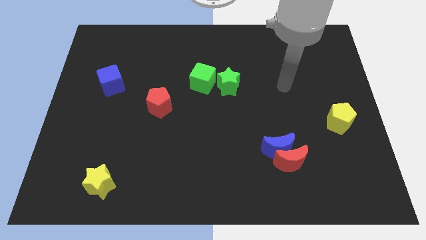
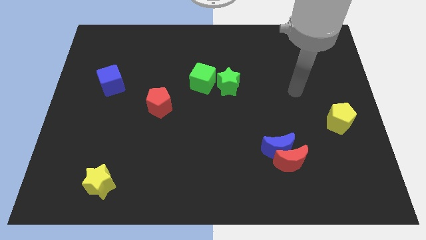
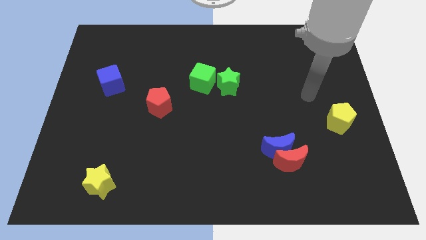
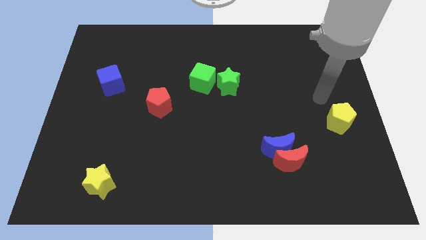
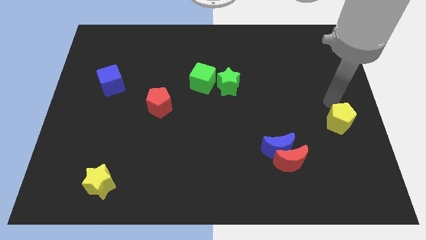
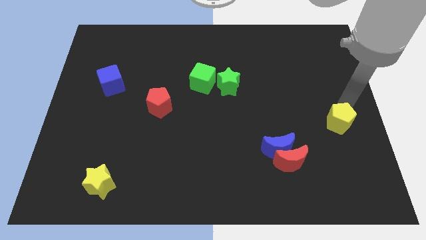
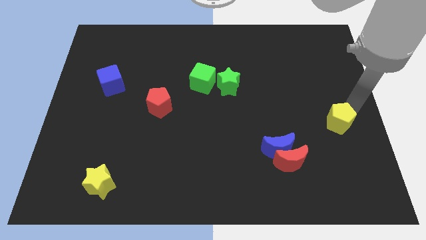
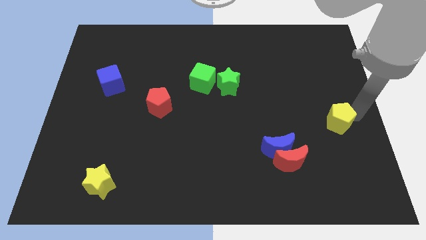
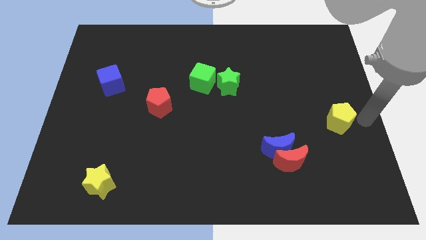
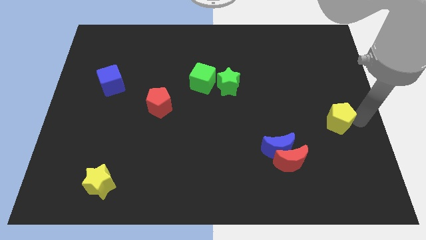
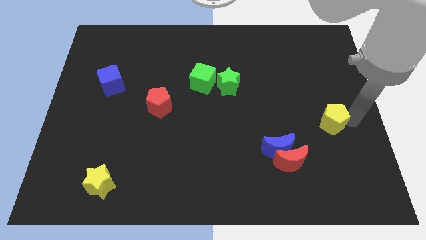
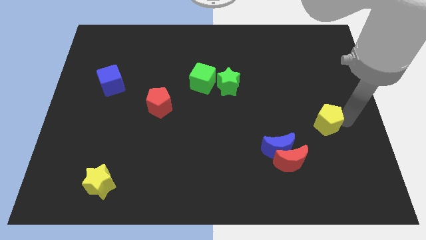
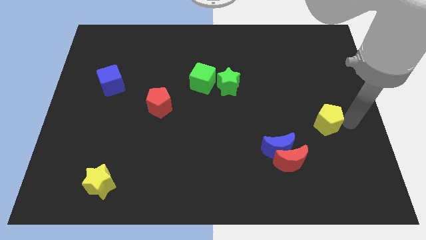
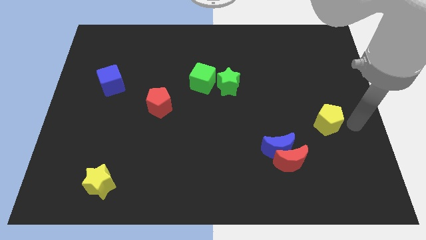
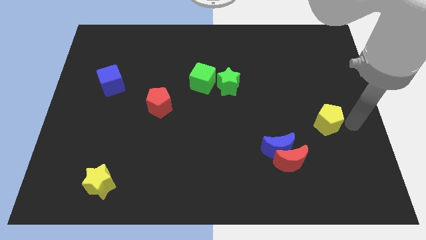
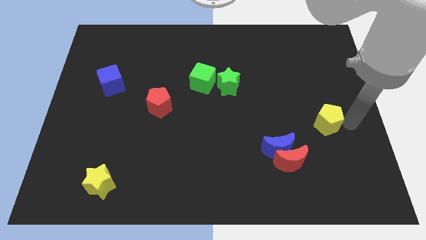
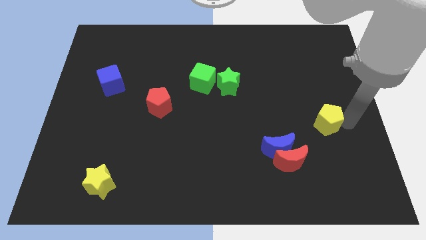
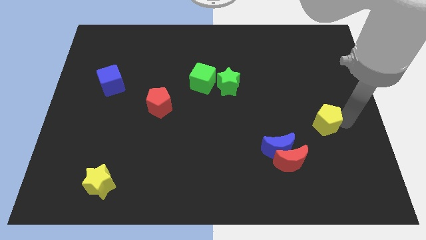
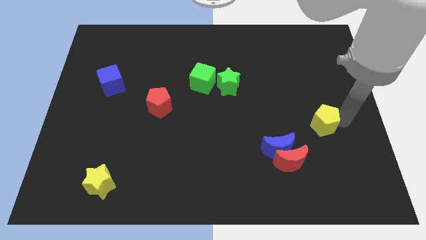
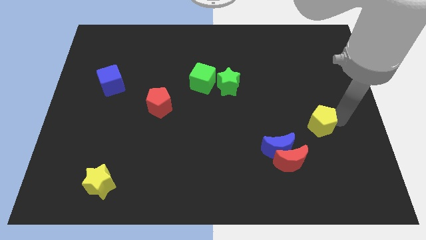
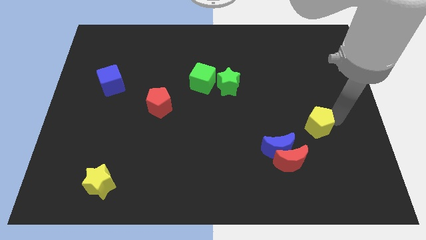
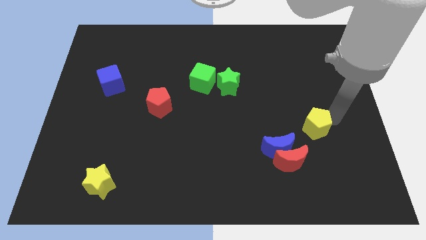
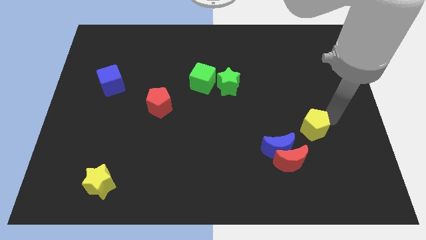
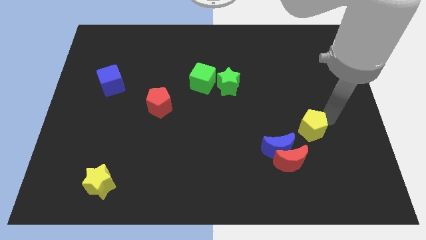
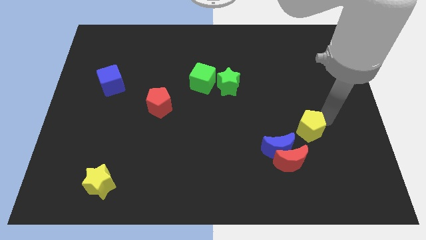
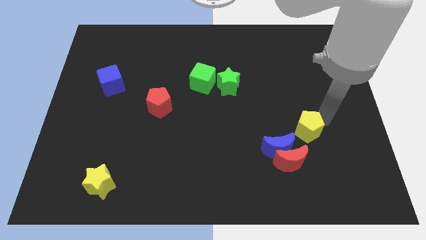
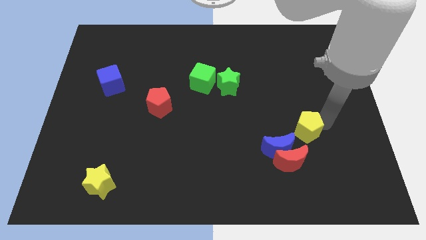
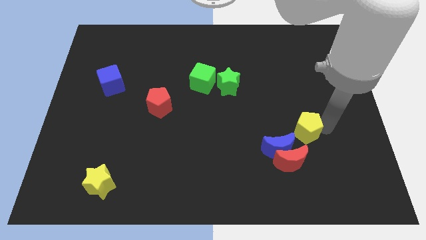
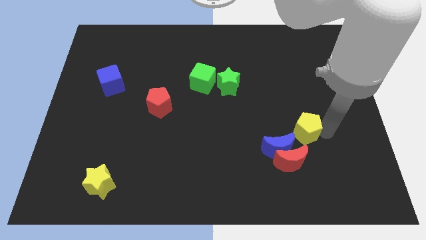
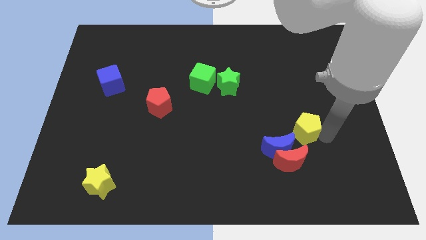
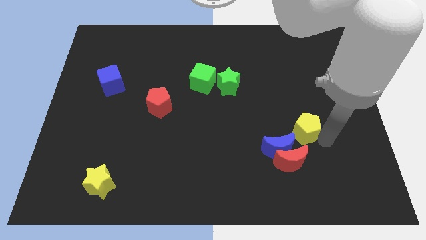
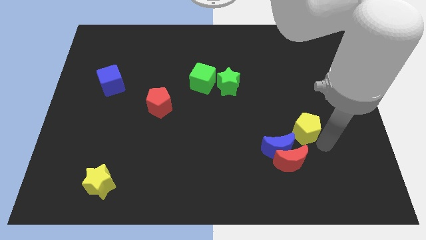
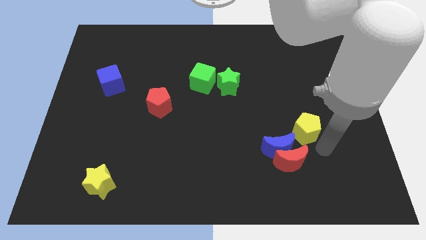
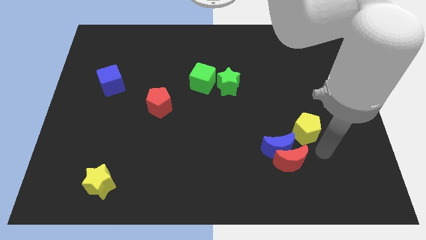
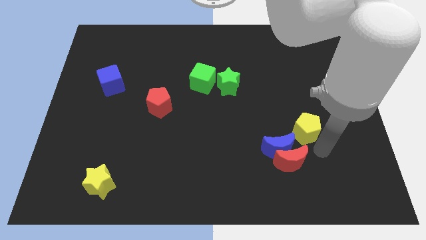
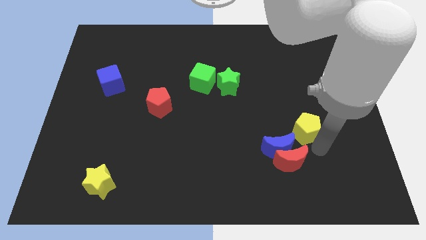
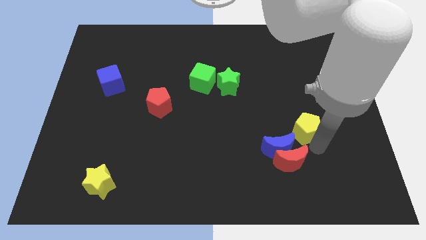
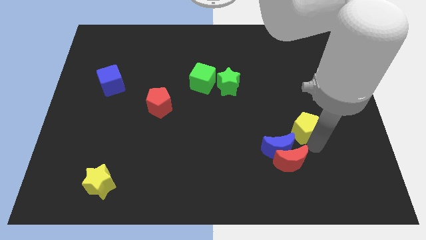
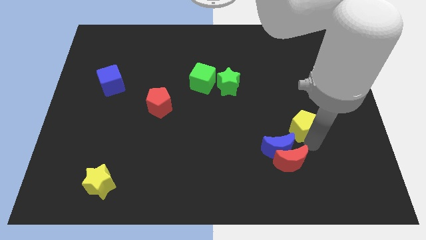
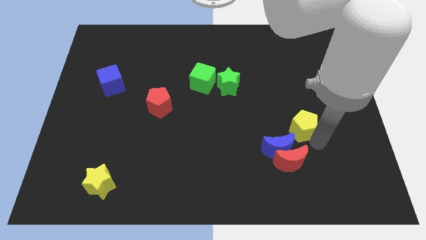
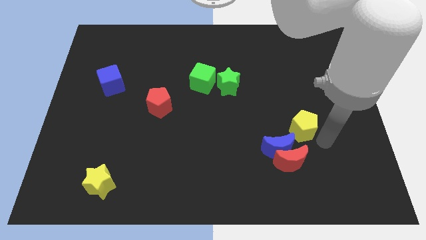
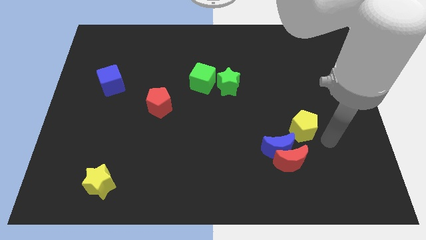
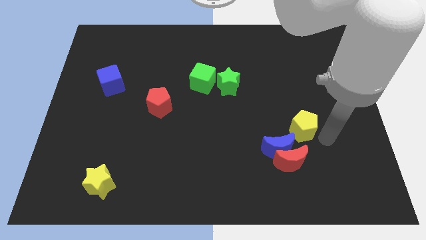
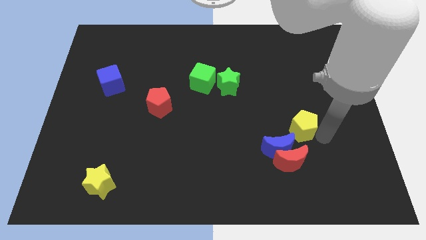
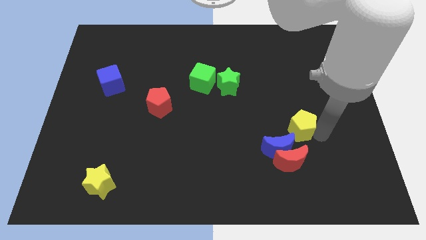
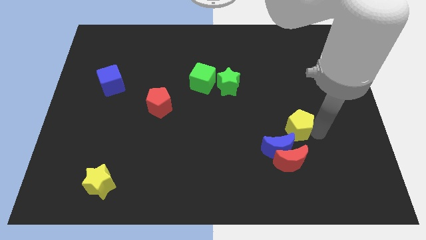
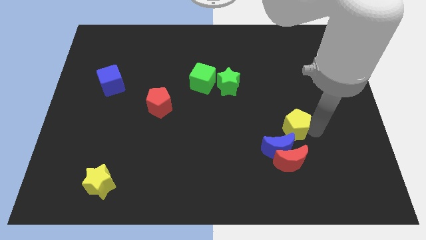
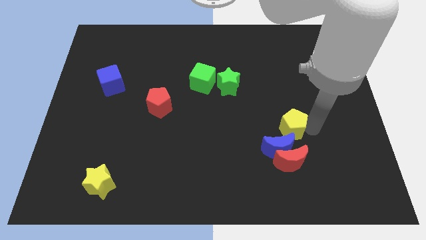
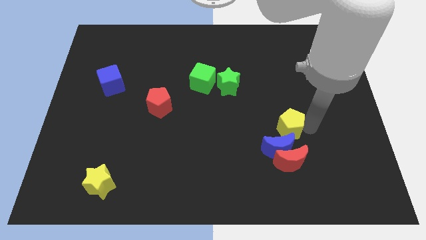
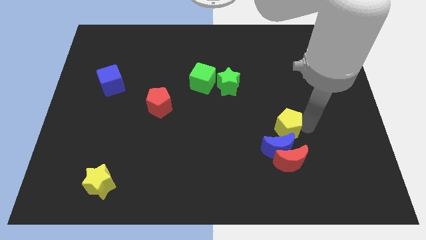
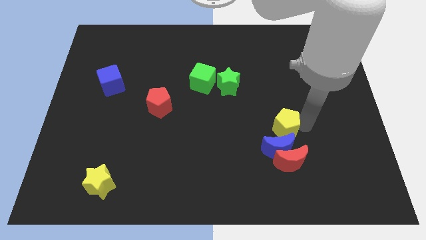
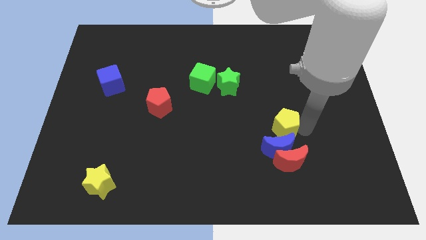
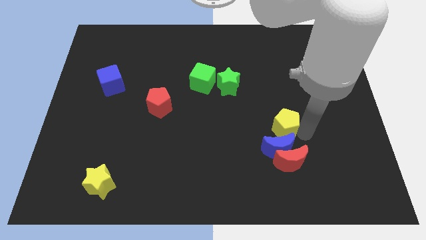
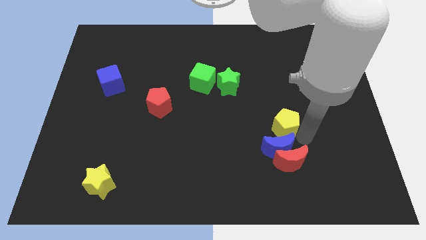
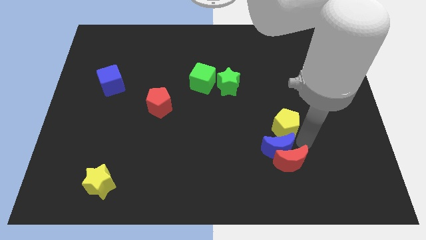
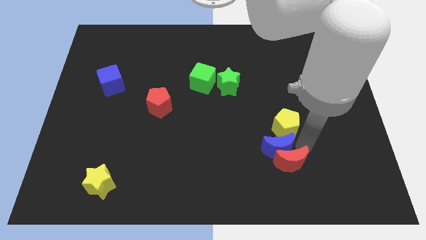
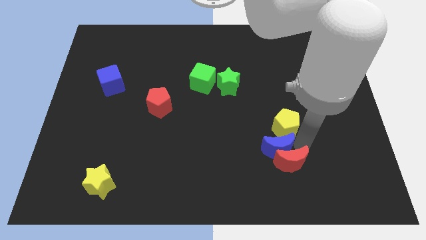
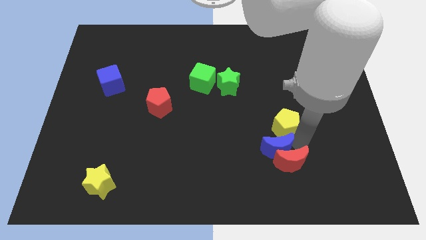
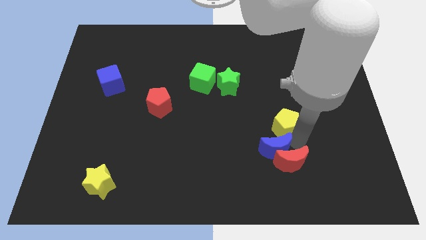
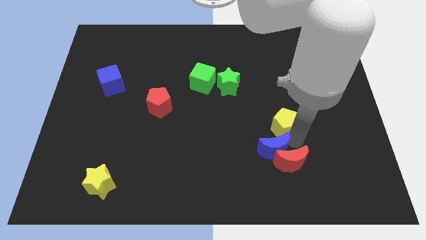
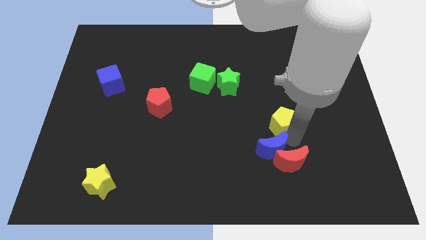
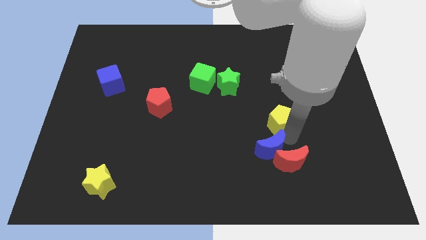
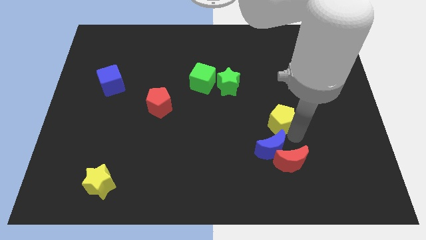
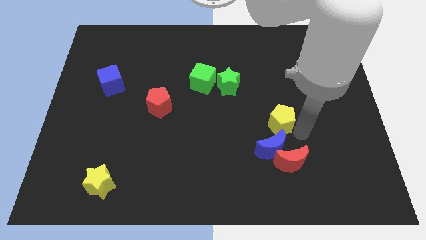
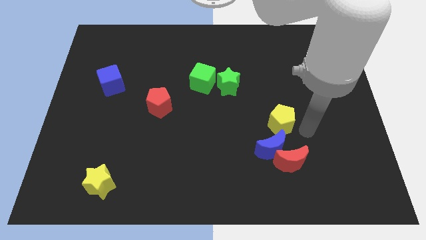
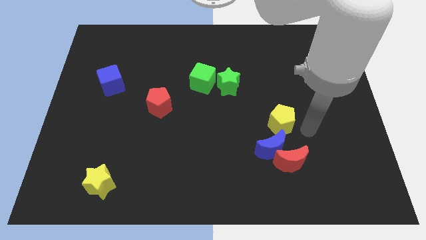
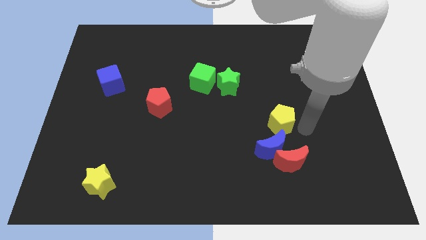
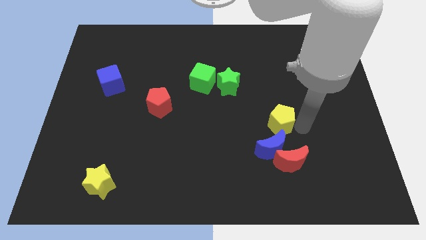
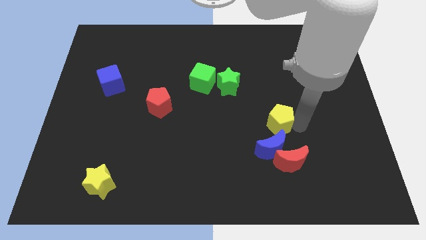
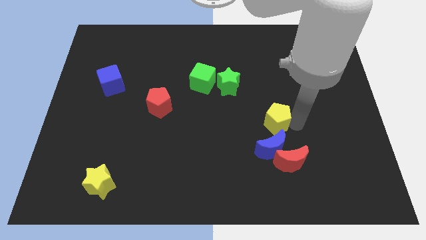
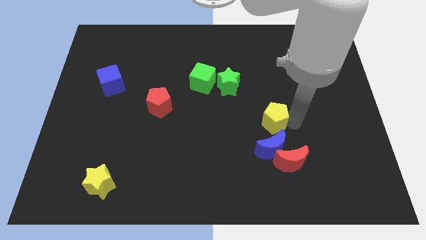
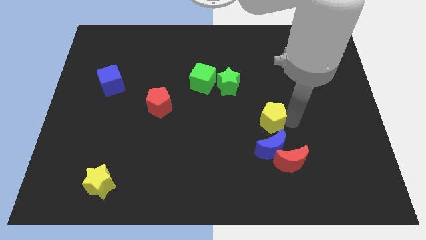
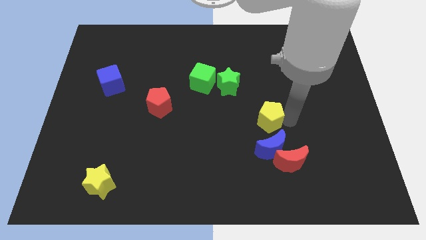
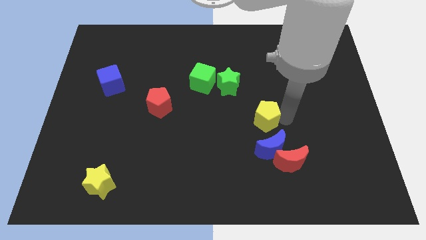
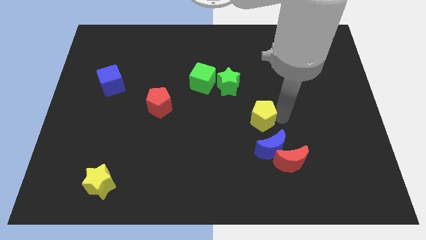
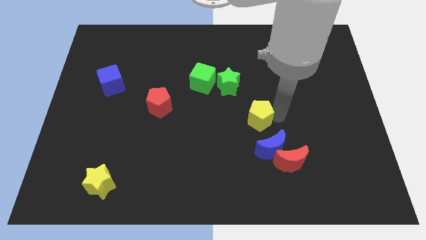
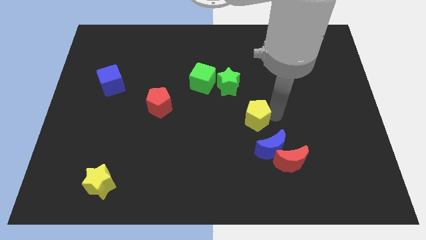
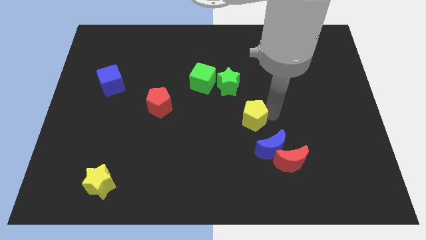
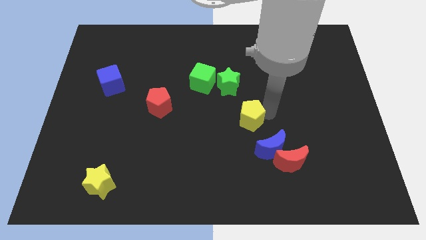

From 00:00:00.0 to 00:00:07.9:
push the yellow pentagon to the left

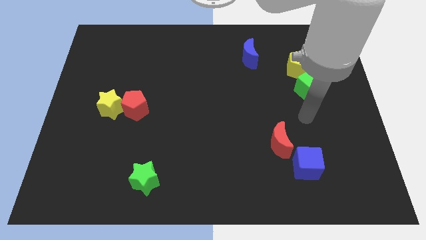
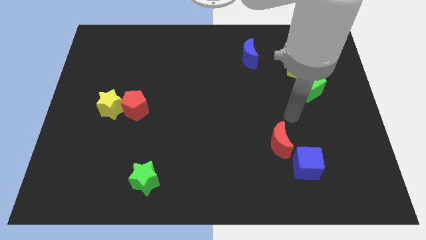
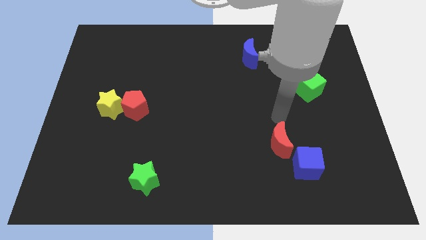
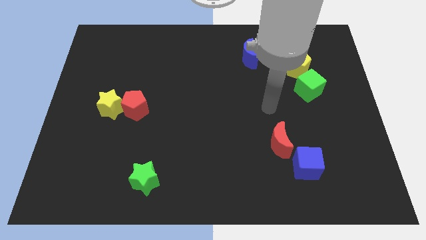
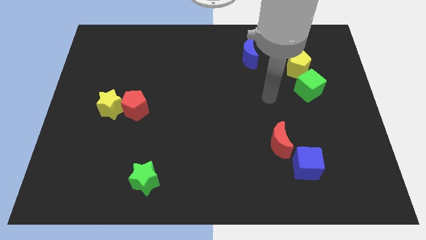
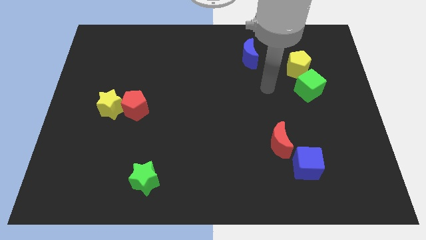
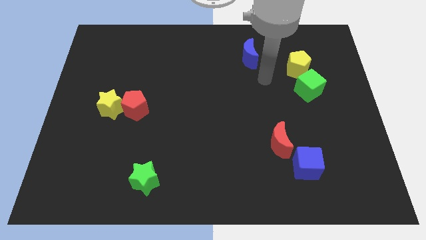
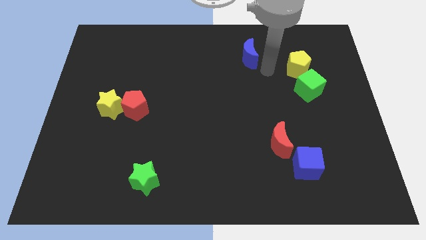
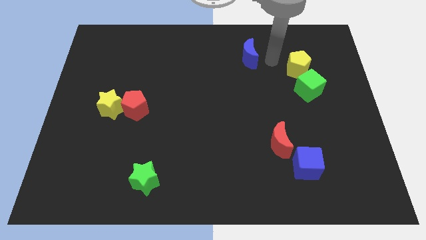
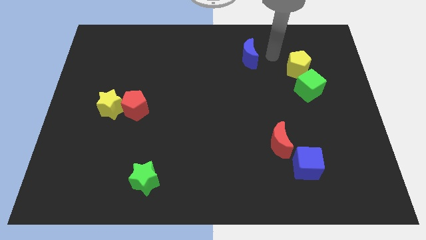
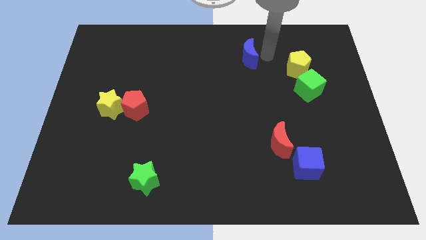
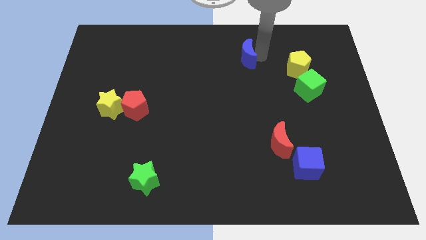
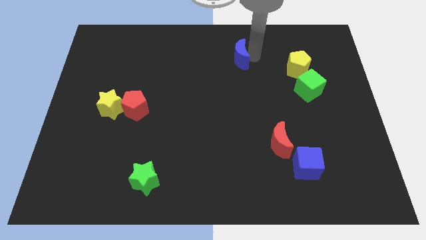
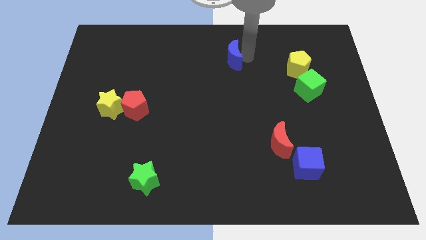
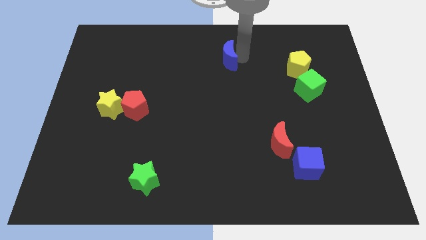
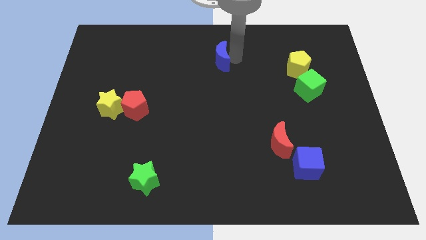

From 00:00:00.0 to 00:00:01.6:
slide the blue moon left a little bit
